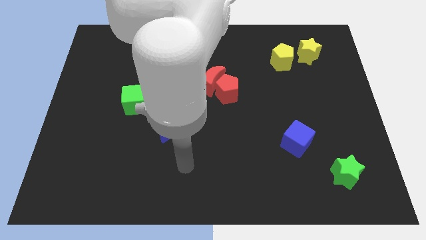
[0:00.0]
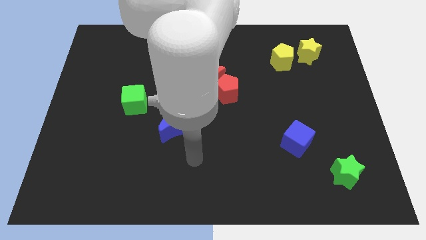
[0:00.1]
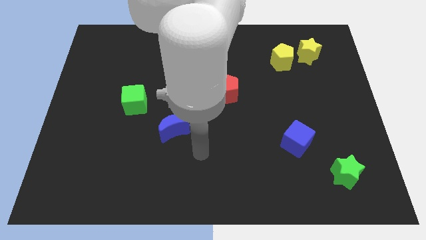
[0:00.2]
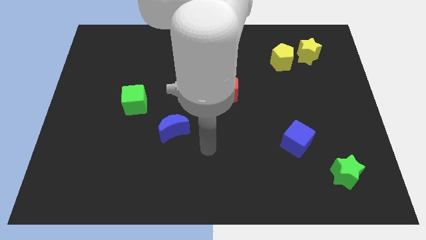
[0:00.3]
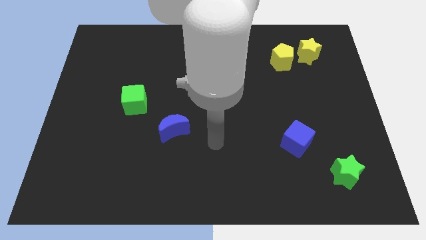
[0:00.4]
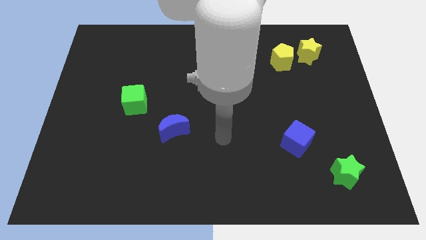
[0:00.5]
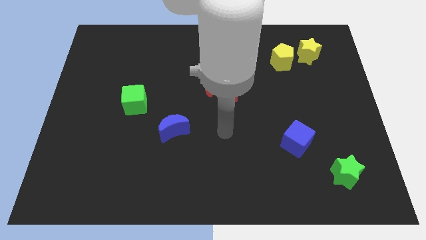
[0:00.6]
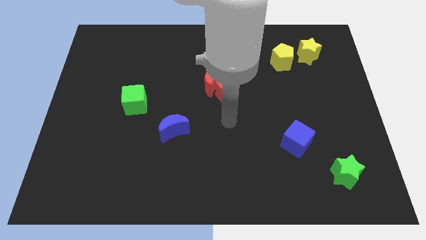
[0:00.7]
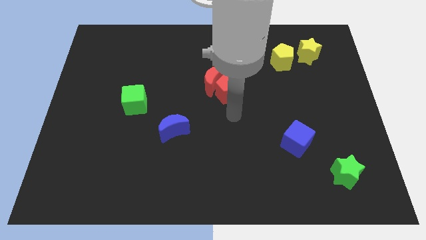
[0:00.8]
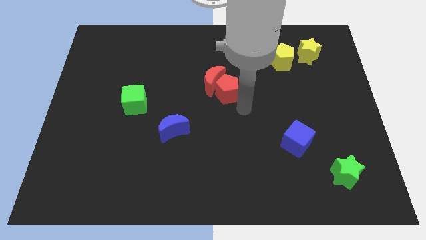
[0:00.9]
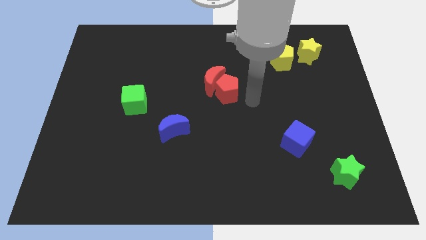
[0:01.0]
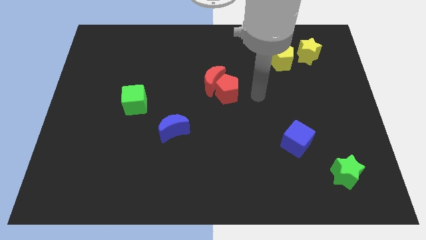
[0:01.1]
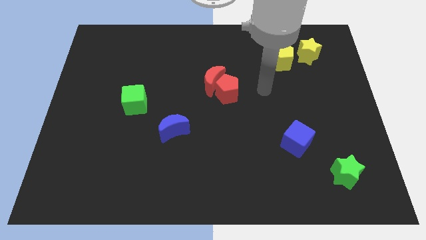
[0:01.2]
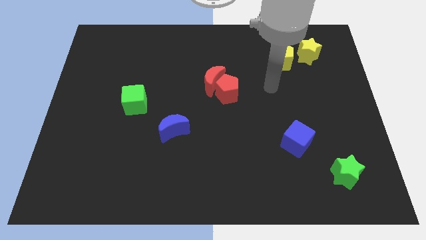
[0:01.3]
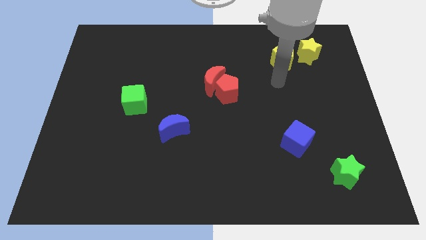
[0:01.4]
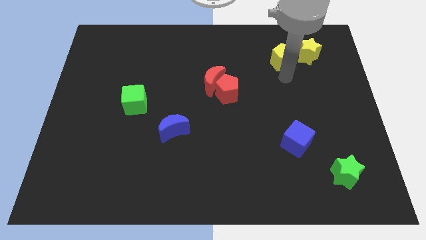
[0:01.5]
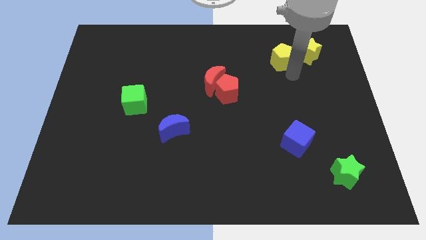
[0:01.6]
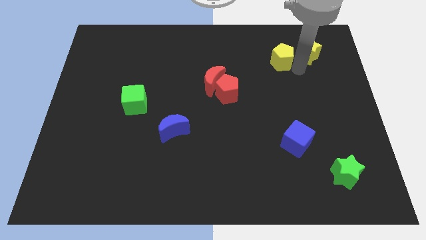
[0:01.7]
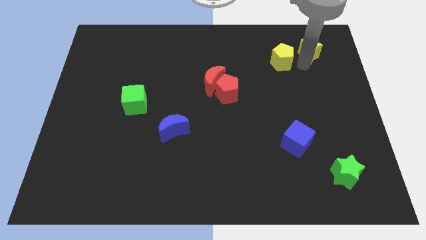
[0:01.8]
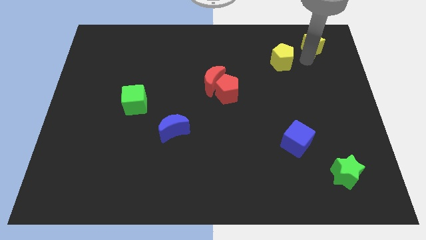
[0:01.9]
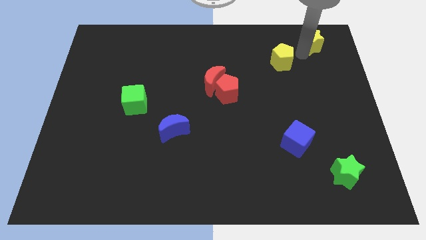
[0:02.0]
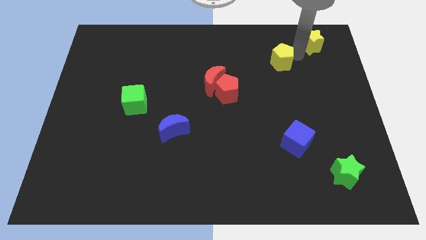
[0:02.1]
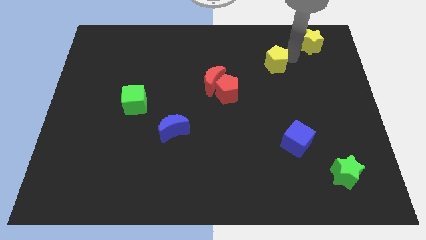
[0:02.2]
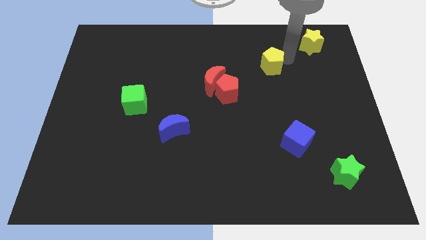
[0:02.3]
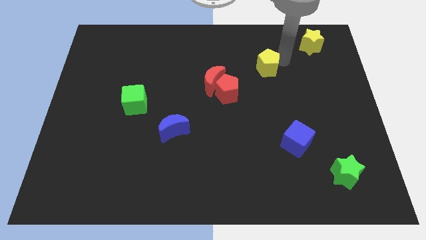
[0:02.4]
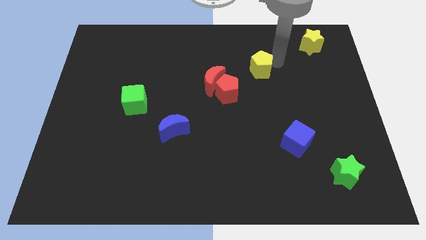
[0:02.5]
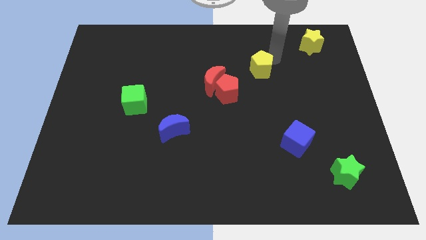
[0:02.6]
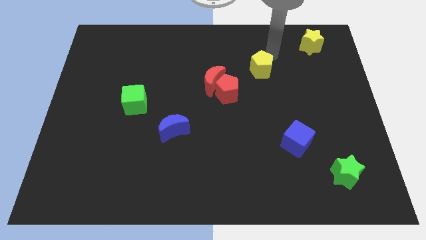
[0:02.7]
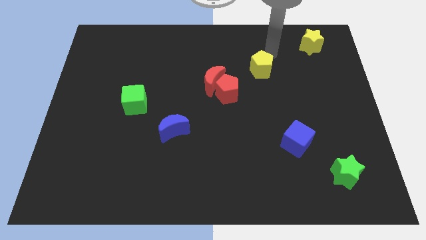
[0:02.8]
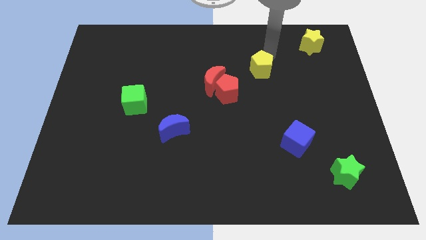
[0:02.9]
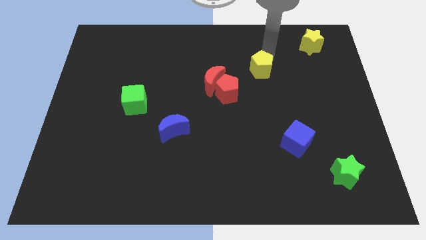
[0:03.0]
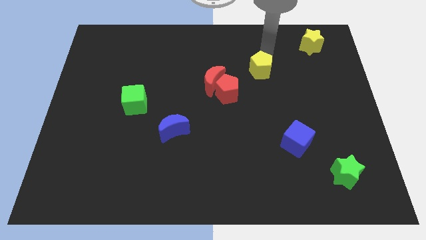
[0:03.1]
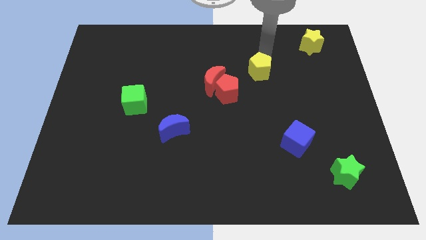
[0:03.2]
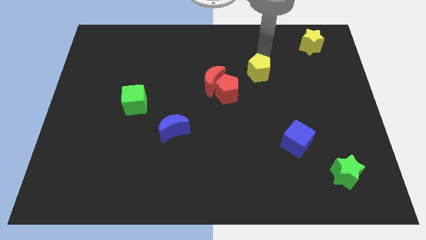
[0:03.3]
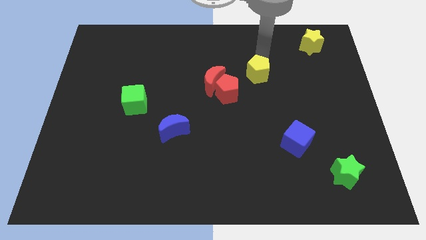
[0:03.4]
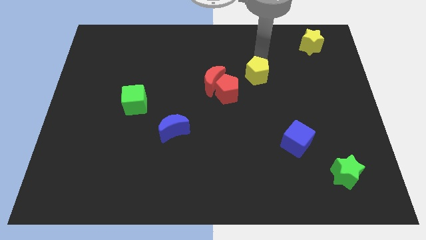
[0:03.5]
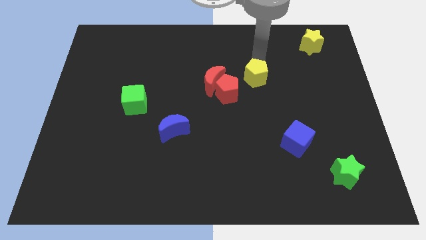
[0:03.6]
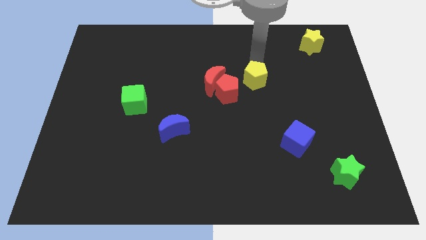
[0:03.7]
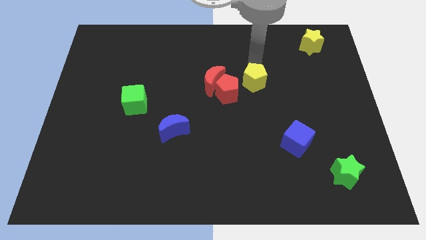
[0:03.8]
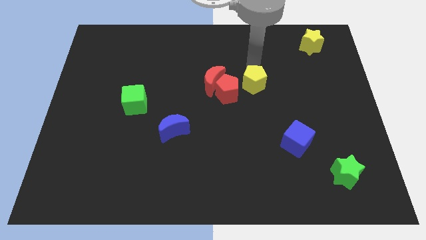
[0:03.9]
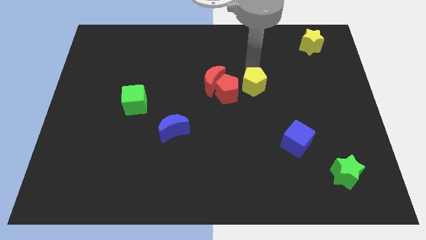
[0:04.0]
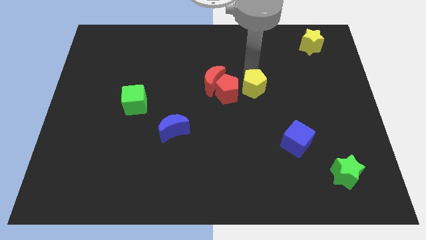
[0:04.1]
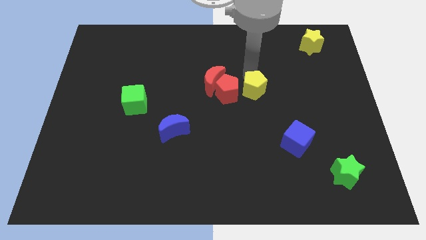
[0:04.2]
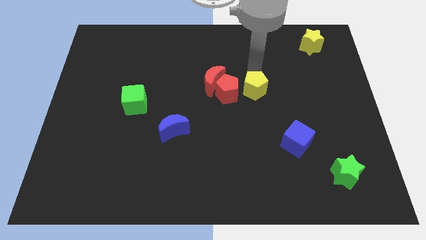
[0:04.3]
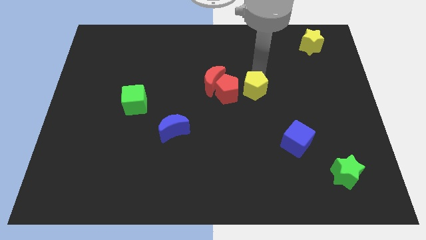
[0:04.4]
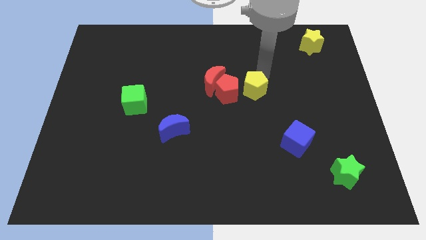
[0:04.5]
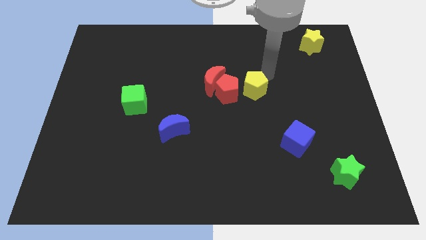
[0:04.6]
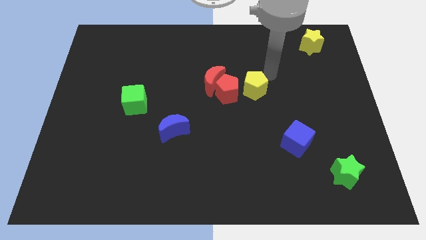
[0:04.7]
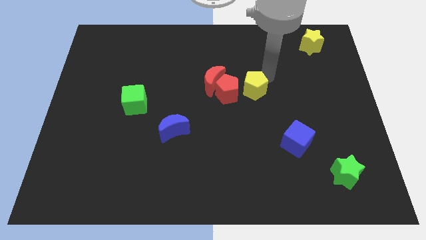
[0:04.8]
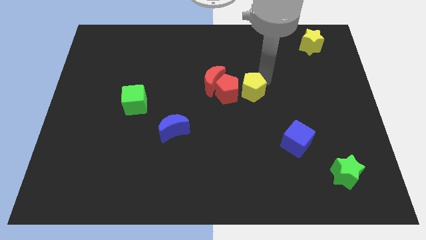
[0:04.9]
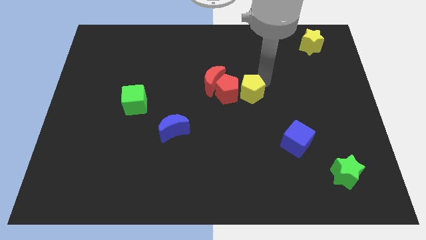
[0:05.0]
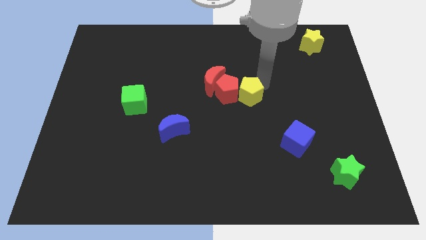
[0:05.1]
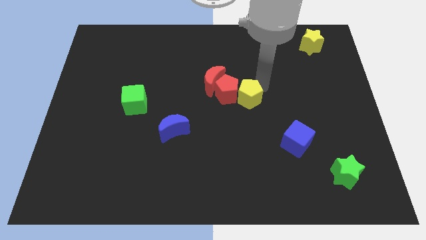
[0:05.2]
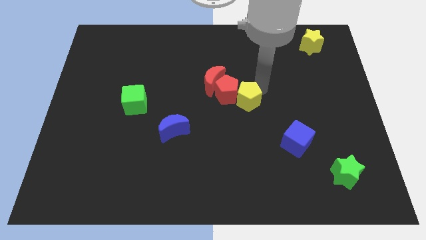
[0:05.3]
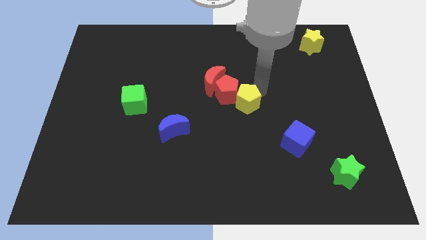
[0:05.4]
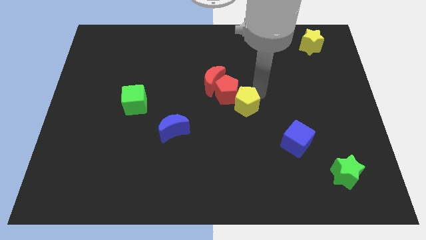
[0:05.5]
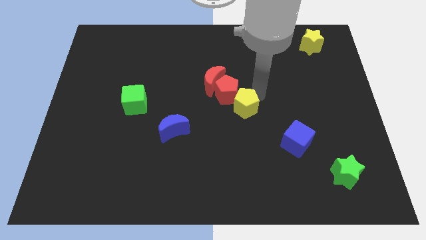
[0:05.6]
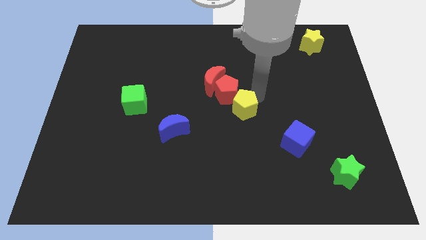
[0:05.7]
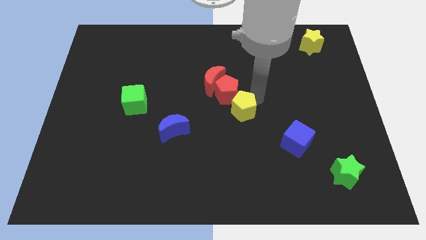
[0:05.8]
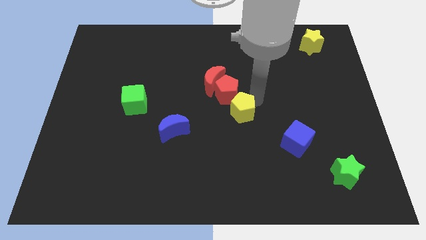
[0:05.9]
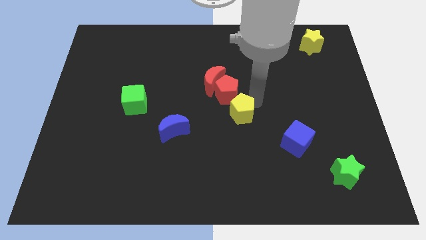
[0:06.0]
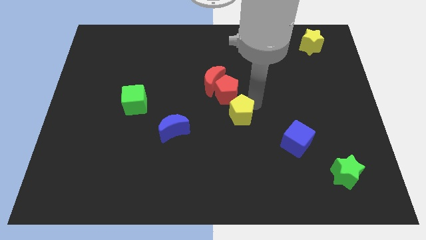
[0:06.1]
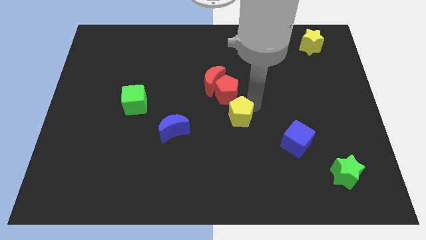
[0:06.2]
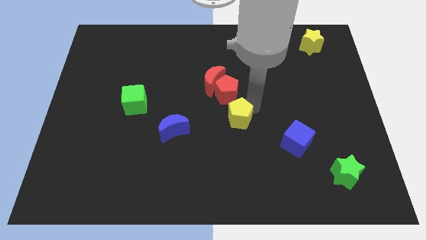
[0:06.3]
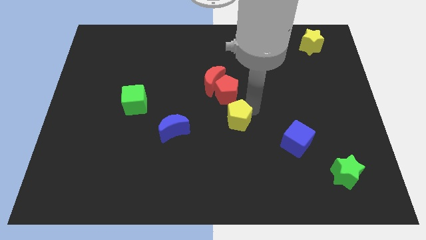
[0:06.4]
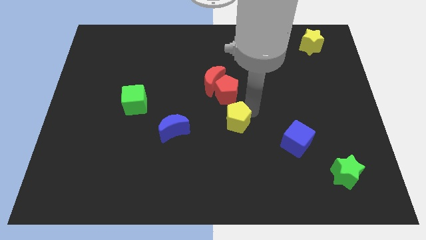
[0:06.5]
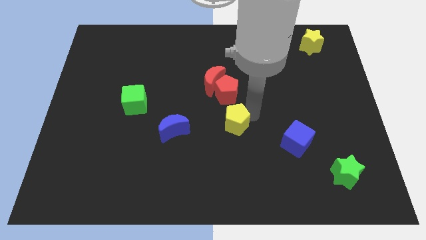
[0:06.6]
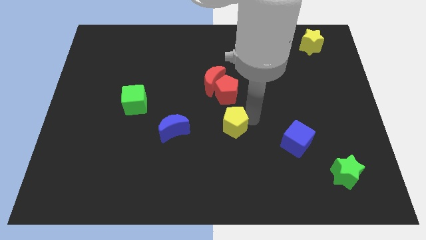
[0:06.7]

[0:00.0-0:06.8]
put the yellow pentagon to the bottom of the red moon
